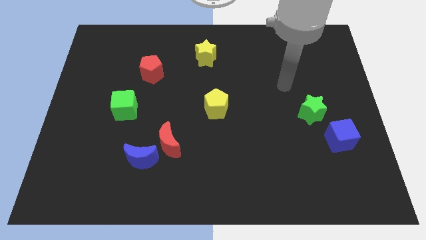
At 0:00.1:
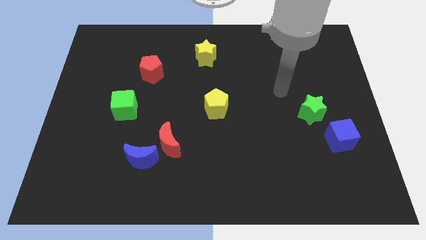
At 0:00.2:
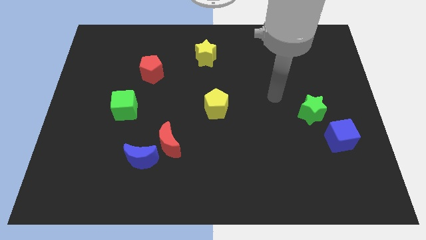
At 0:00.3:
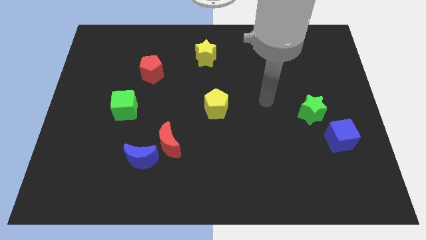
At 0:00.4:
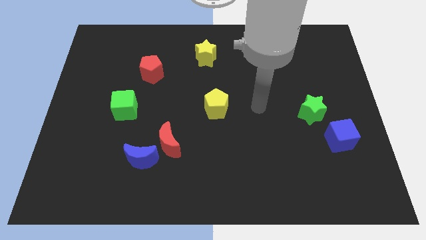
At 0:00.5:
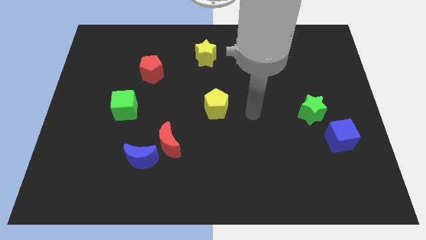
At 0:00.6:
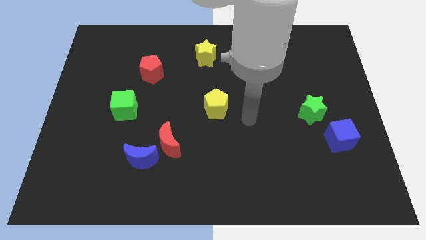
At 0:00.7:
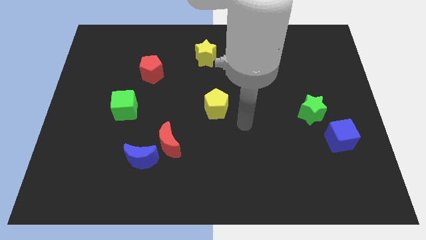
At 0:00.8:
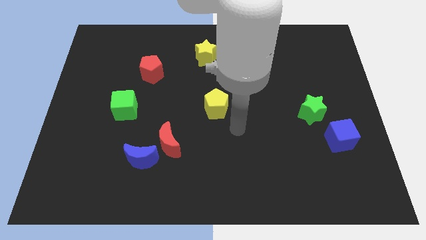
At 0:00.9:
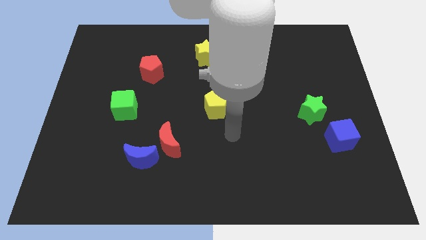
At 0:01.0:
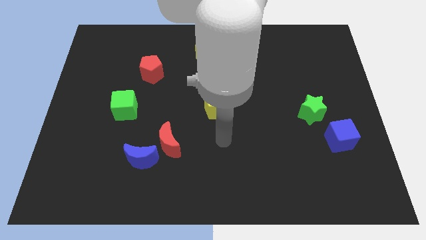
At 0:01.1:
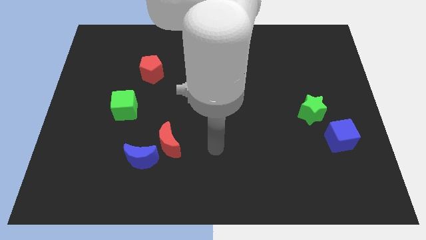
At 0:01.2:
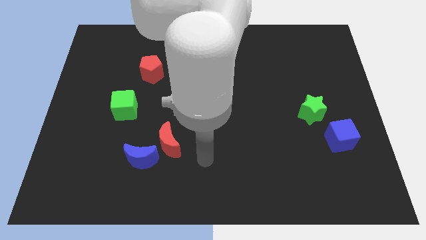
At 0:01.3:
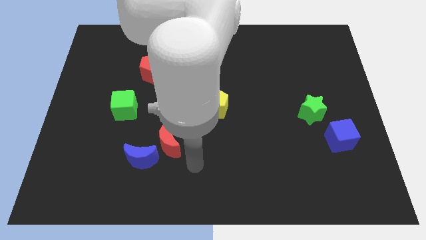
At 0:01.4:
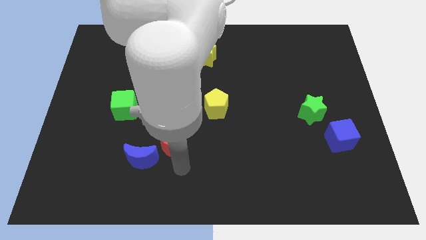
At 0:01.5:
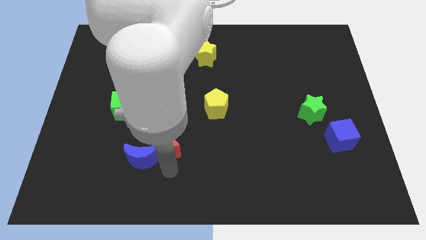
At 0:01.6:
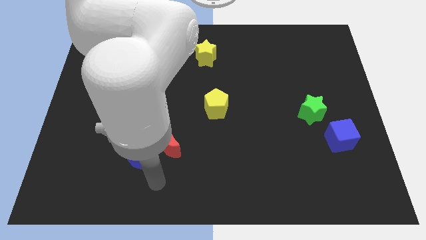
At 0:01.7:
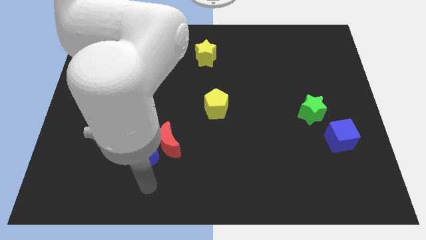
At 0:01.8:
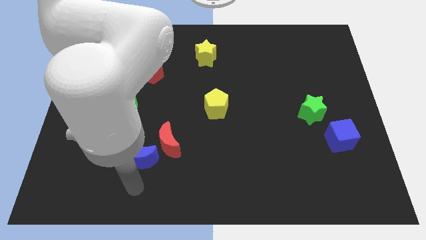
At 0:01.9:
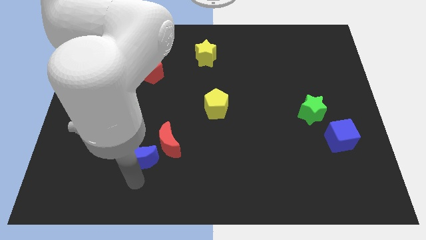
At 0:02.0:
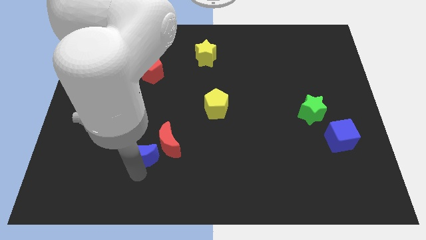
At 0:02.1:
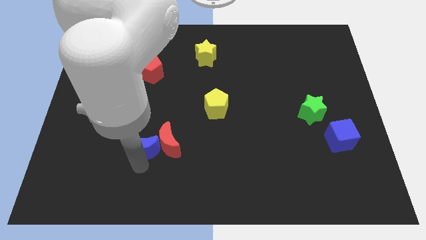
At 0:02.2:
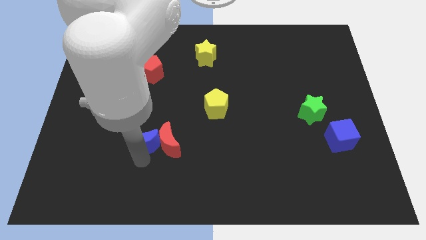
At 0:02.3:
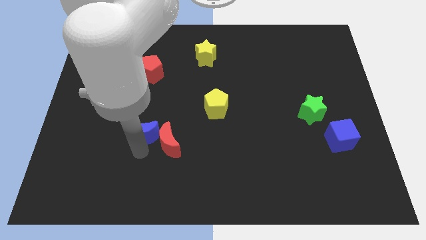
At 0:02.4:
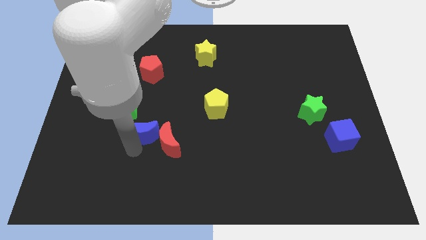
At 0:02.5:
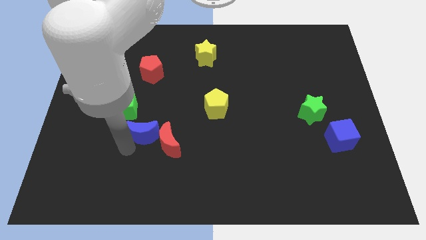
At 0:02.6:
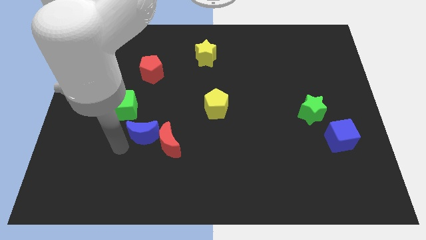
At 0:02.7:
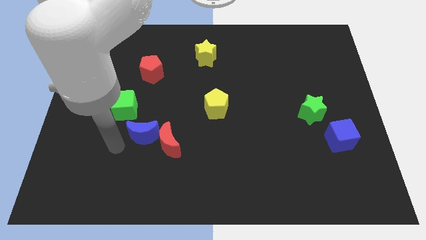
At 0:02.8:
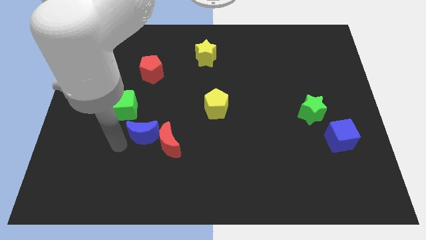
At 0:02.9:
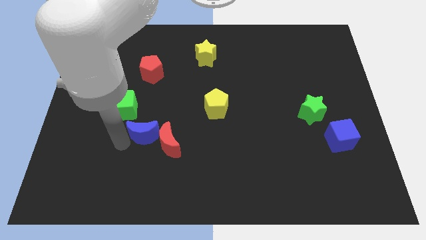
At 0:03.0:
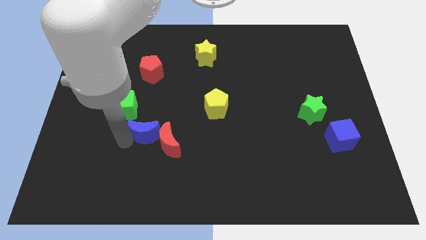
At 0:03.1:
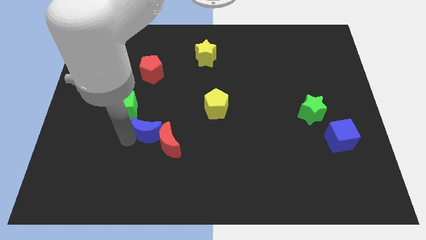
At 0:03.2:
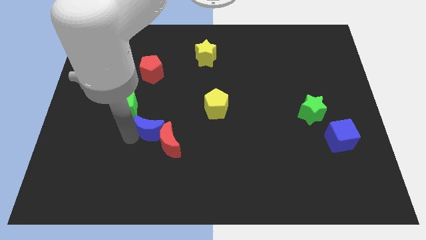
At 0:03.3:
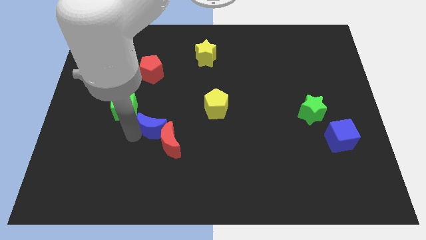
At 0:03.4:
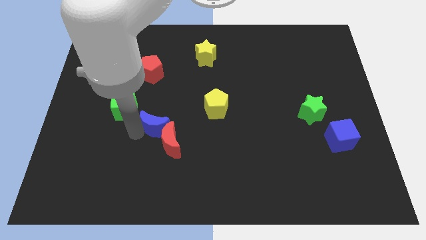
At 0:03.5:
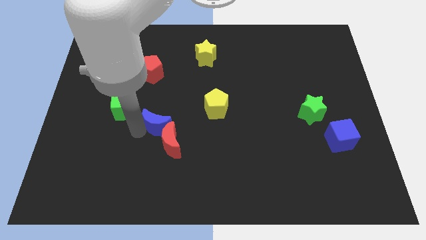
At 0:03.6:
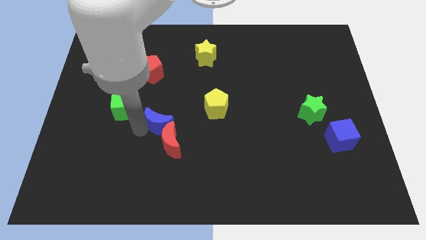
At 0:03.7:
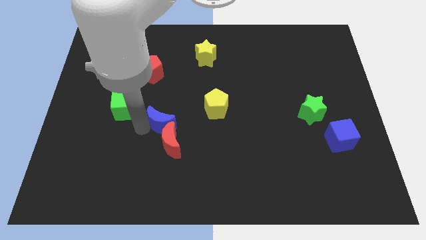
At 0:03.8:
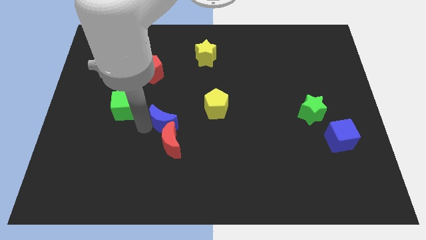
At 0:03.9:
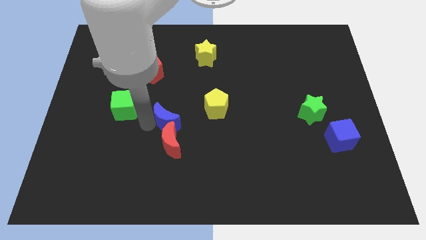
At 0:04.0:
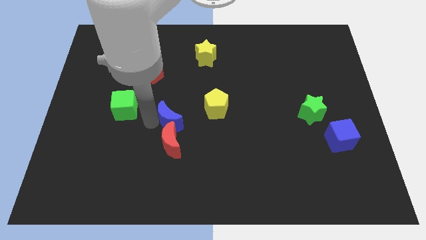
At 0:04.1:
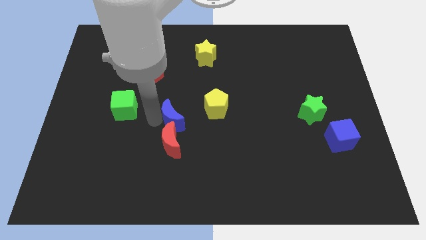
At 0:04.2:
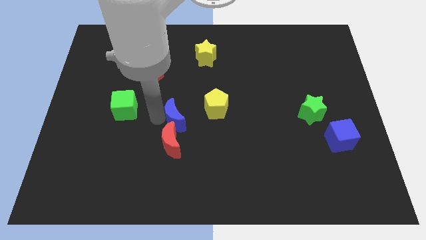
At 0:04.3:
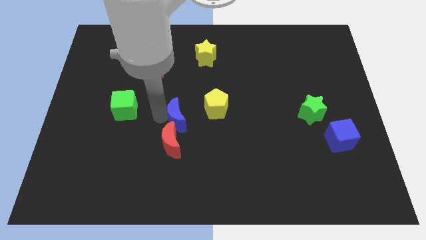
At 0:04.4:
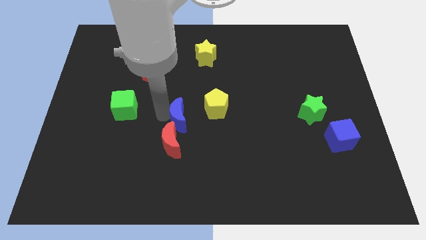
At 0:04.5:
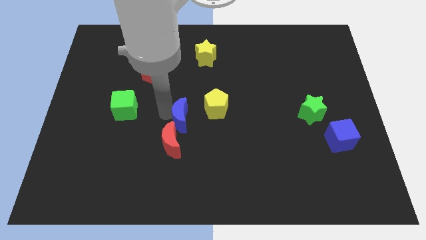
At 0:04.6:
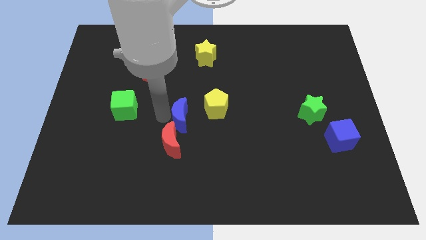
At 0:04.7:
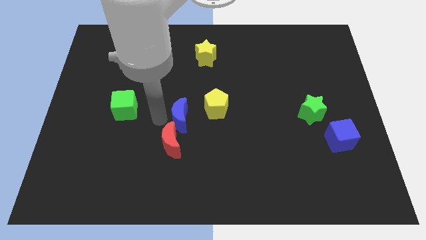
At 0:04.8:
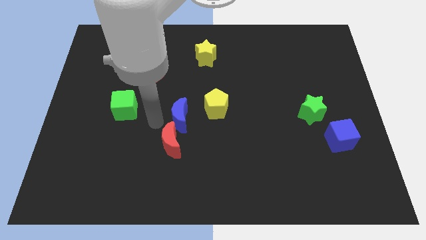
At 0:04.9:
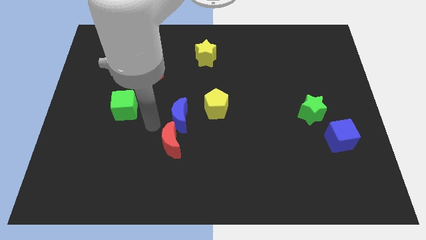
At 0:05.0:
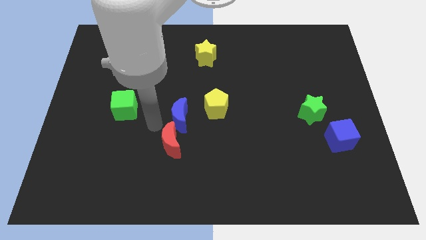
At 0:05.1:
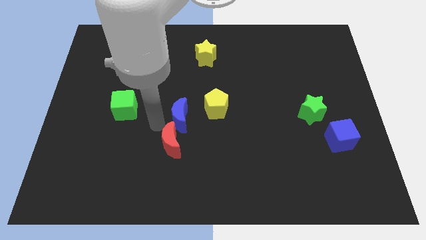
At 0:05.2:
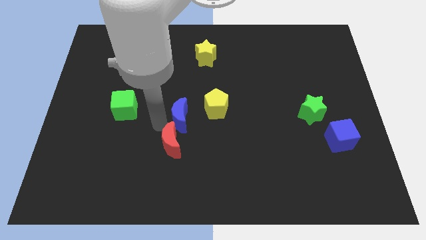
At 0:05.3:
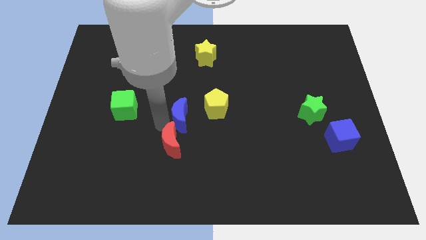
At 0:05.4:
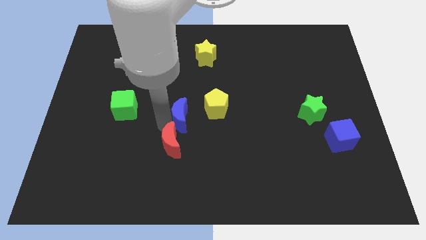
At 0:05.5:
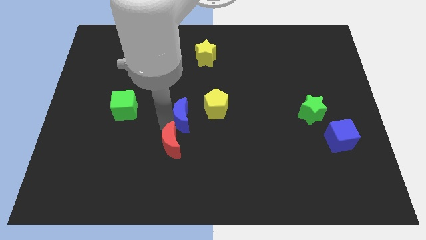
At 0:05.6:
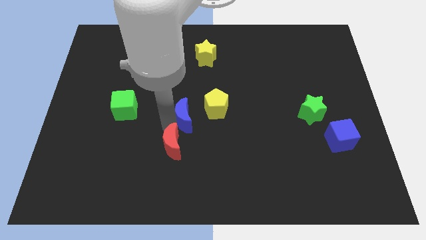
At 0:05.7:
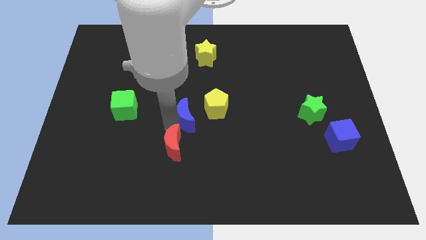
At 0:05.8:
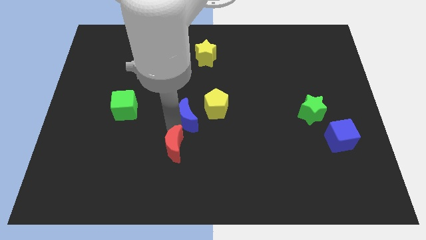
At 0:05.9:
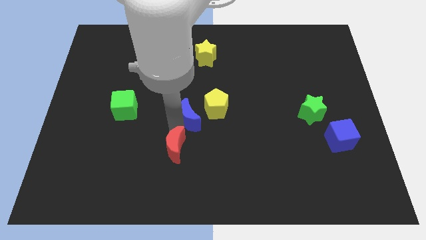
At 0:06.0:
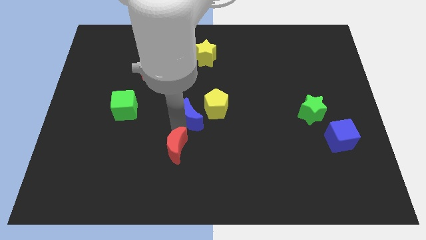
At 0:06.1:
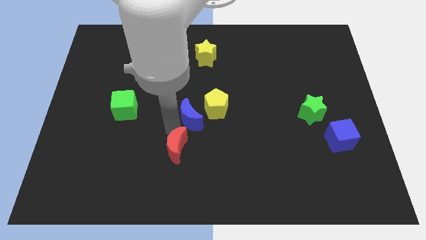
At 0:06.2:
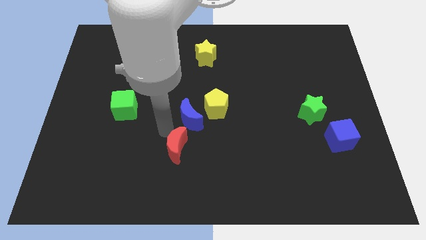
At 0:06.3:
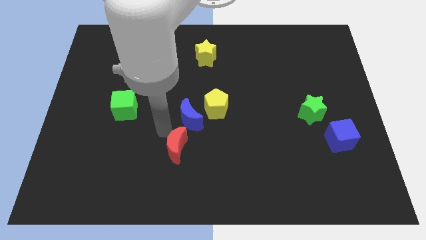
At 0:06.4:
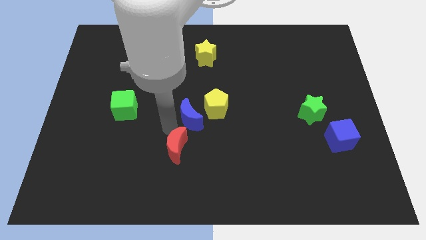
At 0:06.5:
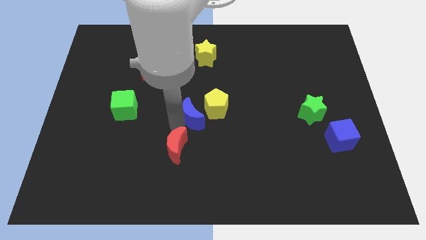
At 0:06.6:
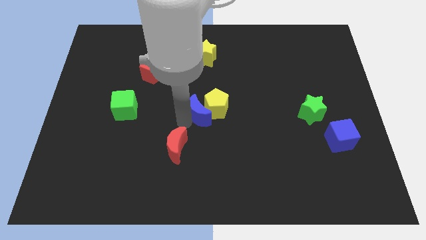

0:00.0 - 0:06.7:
push the blue moon to the yellow pentagon

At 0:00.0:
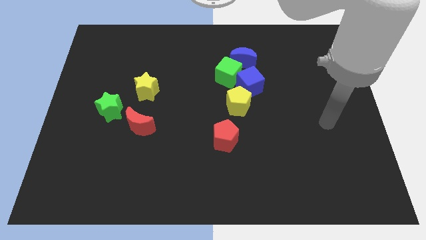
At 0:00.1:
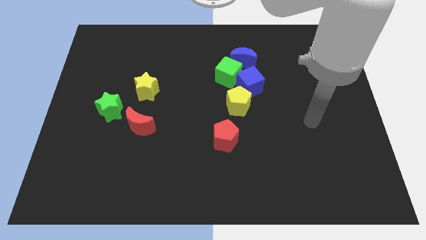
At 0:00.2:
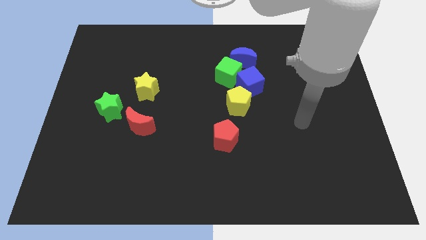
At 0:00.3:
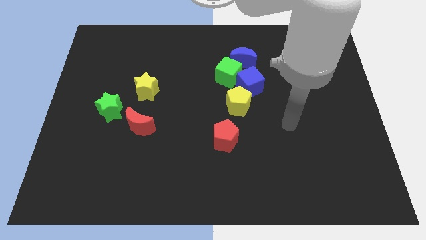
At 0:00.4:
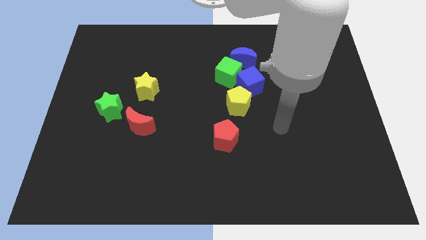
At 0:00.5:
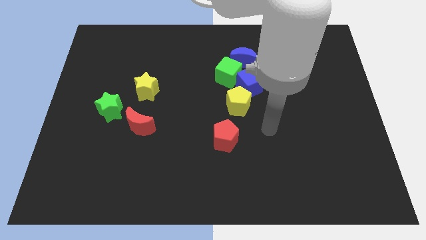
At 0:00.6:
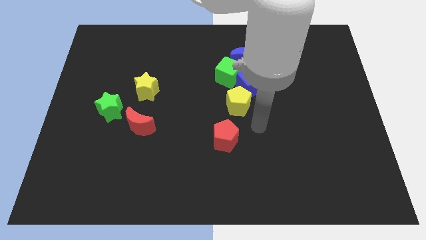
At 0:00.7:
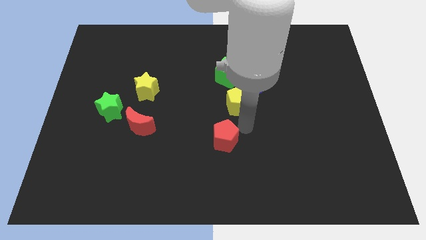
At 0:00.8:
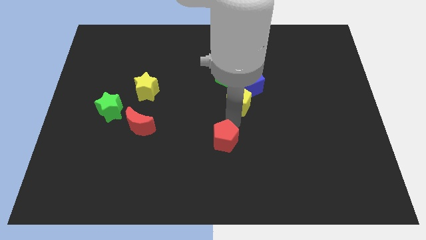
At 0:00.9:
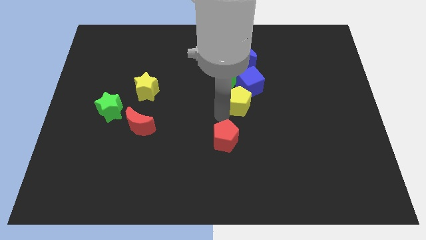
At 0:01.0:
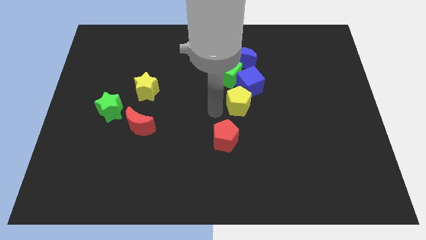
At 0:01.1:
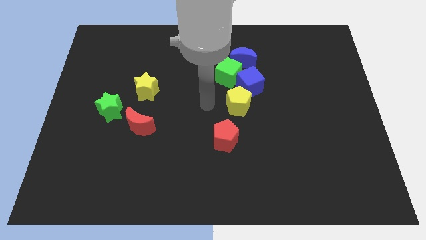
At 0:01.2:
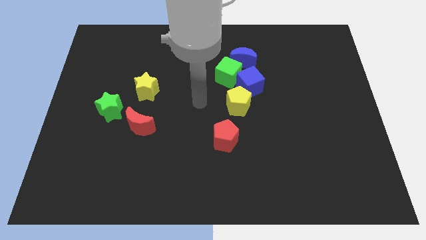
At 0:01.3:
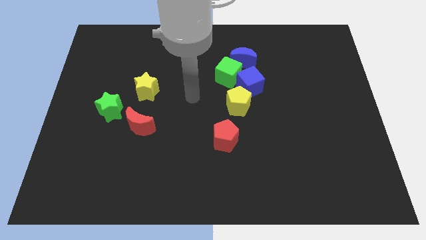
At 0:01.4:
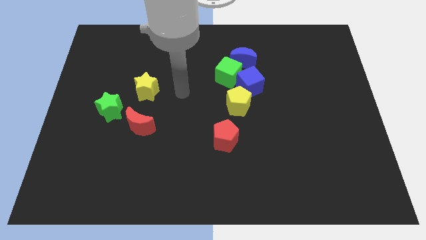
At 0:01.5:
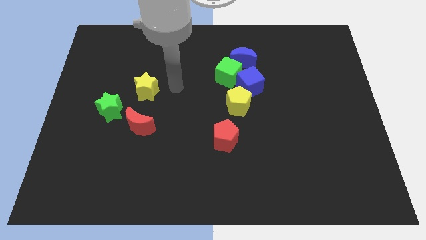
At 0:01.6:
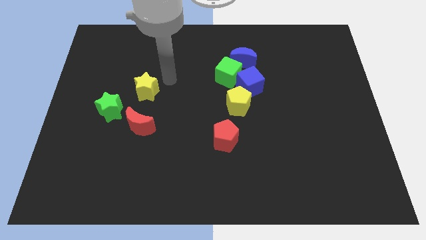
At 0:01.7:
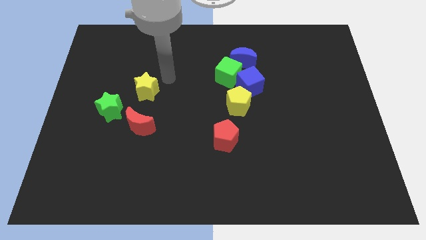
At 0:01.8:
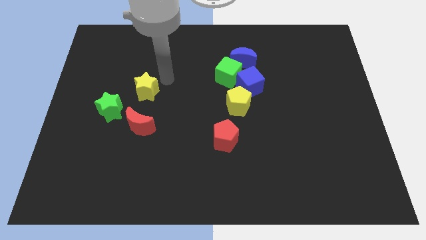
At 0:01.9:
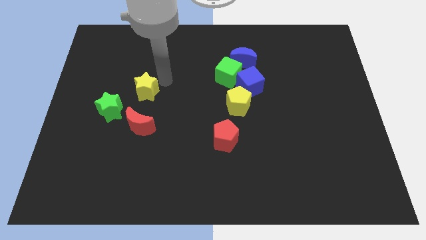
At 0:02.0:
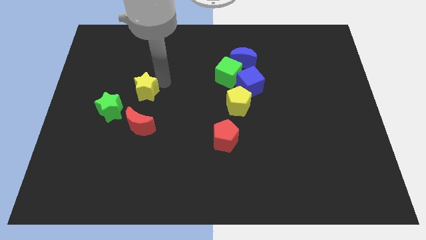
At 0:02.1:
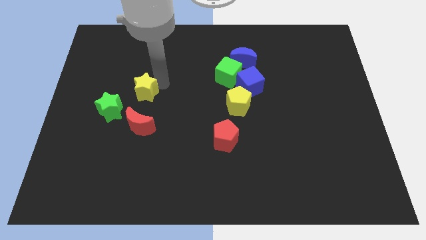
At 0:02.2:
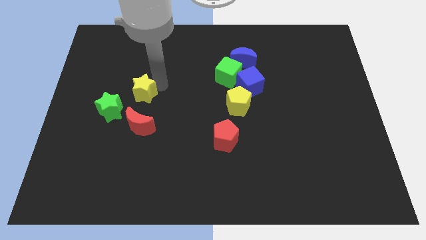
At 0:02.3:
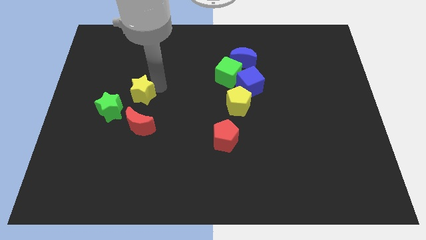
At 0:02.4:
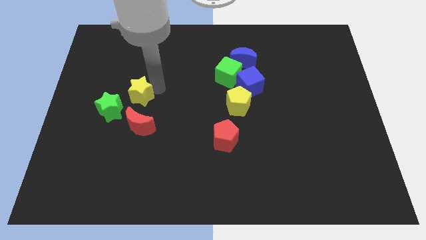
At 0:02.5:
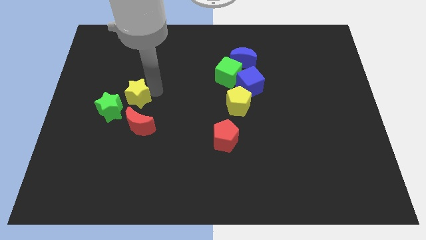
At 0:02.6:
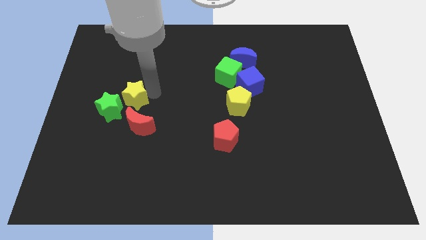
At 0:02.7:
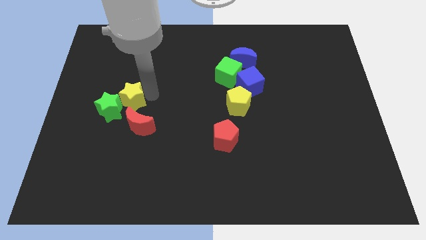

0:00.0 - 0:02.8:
move the yellow star next to the green star
